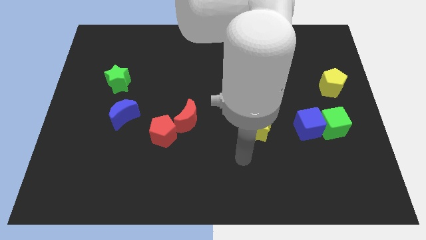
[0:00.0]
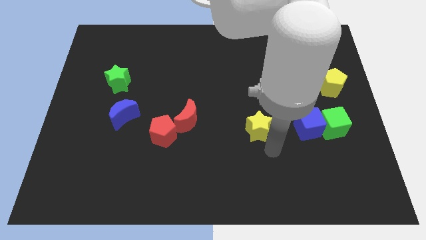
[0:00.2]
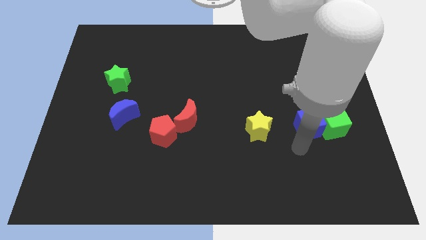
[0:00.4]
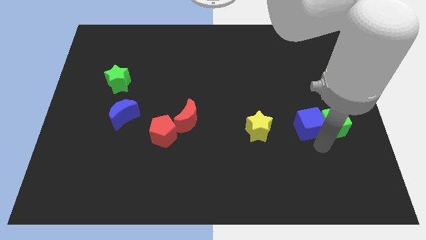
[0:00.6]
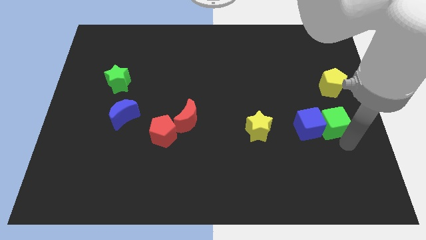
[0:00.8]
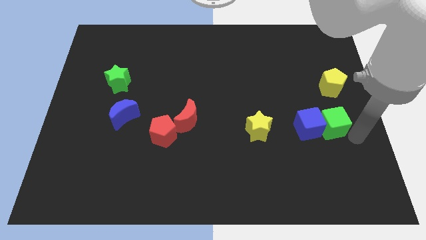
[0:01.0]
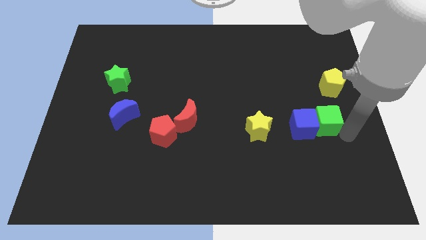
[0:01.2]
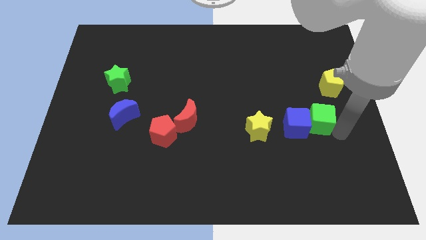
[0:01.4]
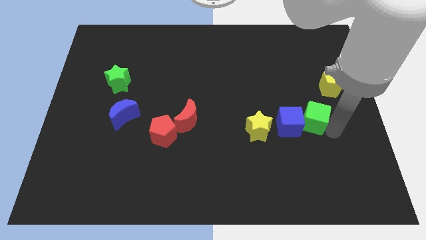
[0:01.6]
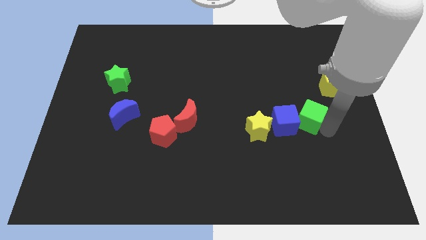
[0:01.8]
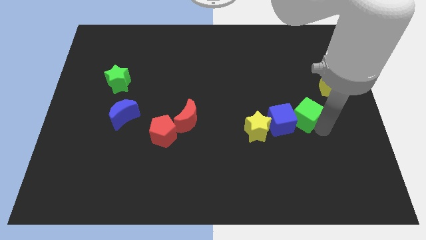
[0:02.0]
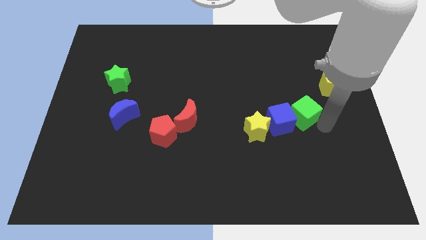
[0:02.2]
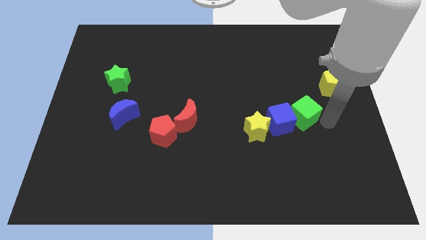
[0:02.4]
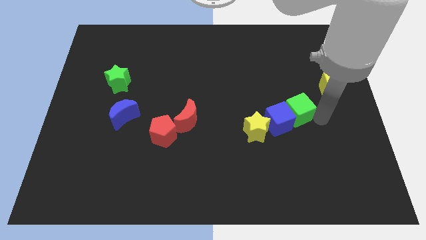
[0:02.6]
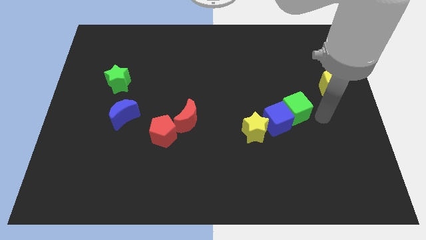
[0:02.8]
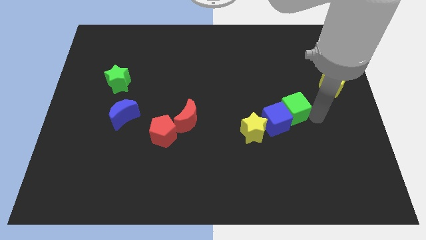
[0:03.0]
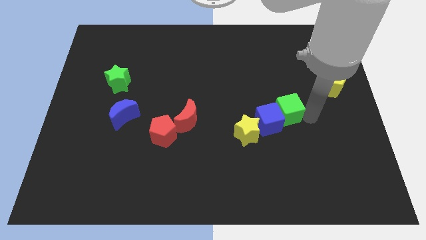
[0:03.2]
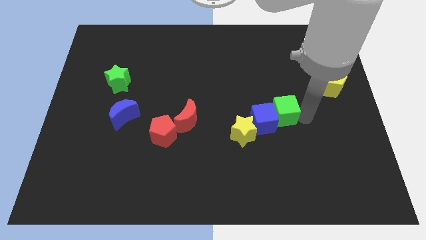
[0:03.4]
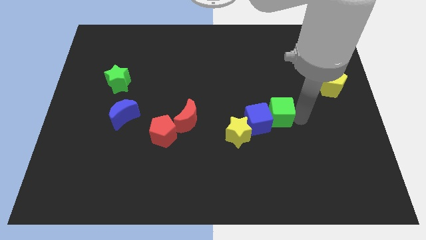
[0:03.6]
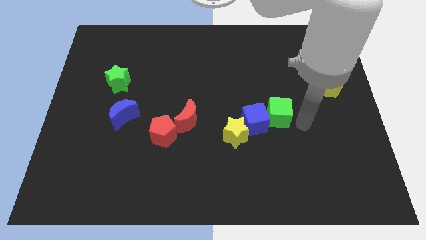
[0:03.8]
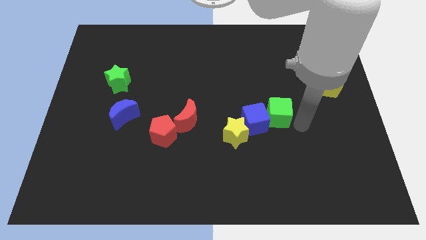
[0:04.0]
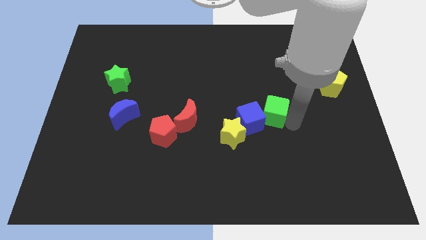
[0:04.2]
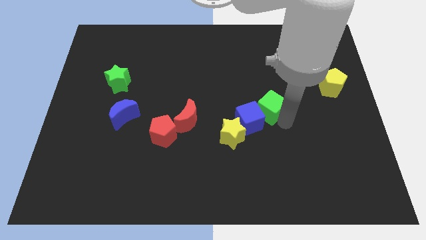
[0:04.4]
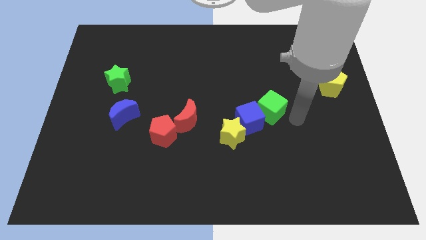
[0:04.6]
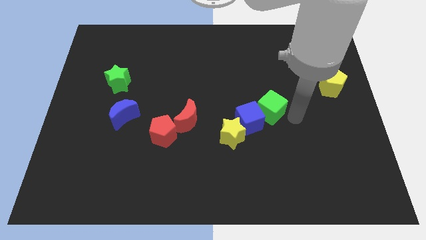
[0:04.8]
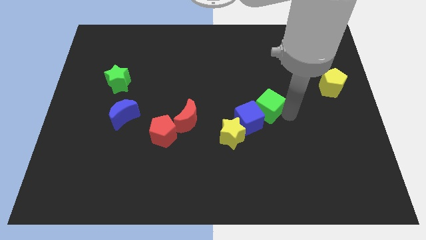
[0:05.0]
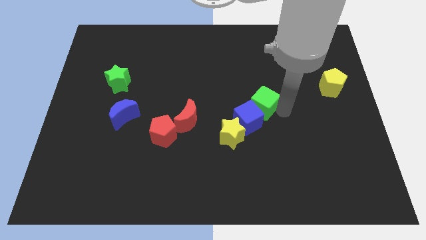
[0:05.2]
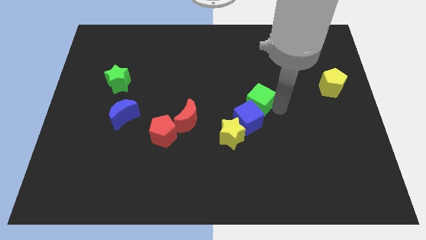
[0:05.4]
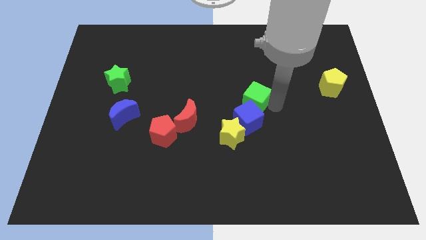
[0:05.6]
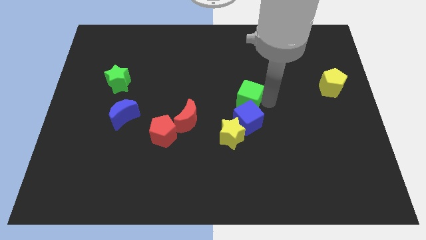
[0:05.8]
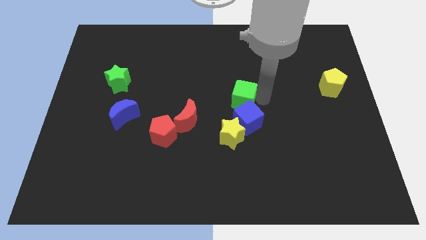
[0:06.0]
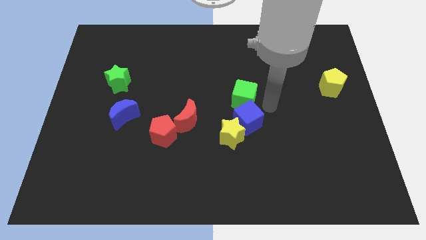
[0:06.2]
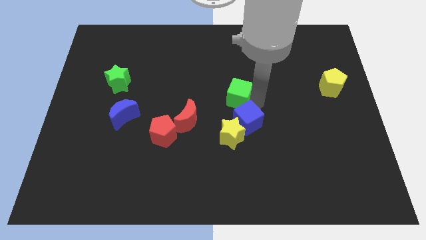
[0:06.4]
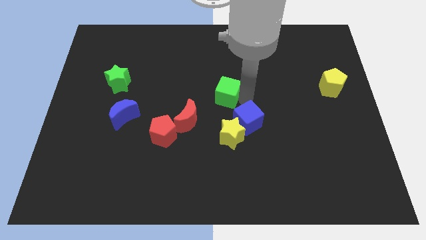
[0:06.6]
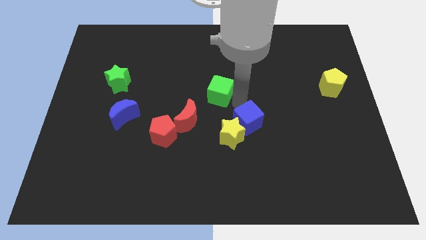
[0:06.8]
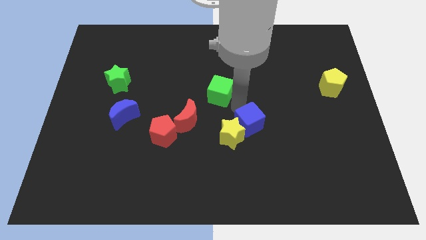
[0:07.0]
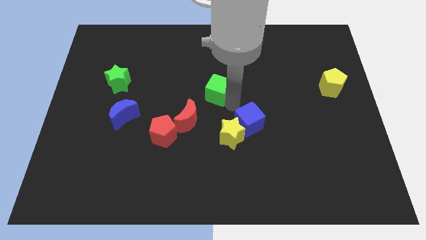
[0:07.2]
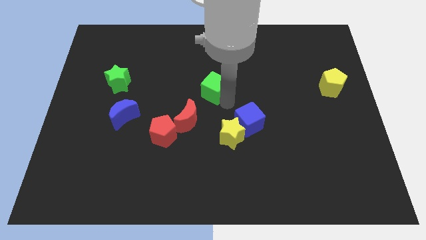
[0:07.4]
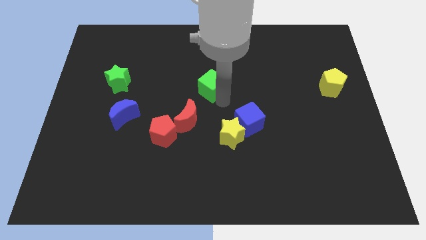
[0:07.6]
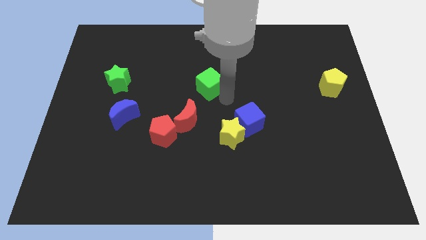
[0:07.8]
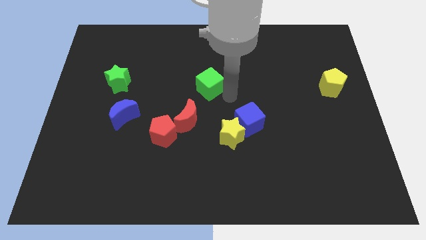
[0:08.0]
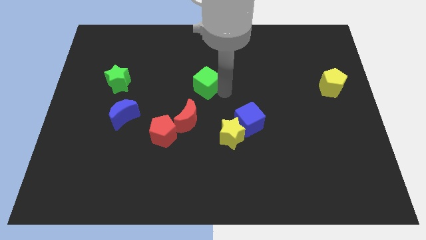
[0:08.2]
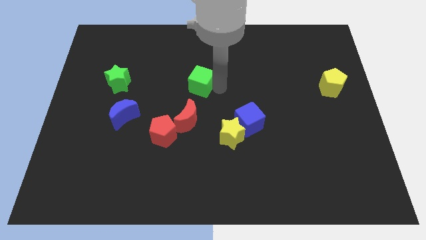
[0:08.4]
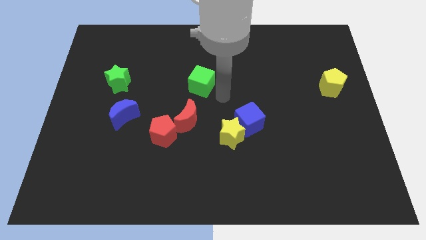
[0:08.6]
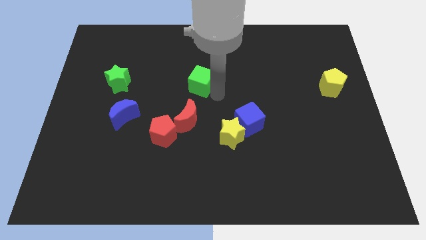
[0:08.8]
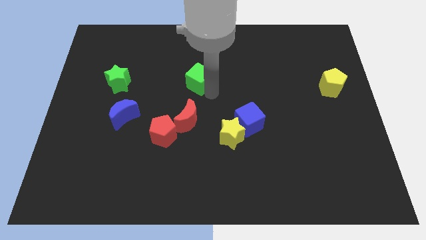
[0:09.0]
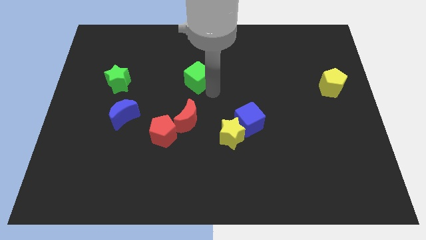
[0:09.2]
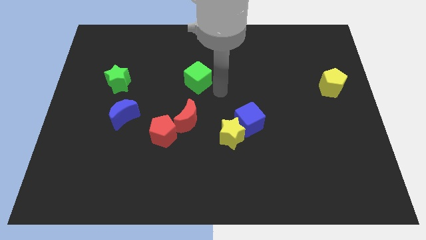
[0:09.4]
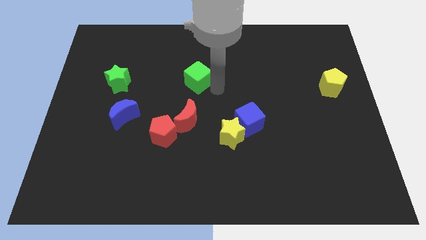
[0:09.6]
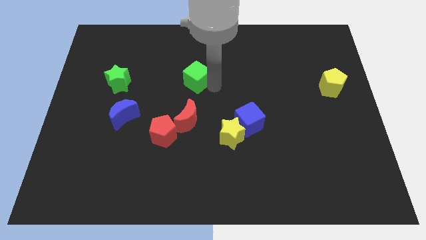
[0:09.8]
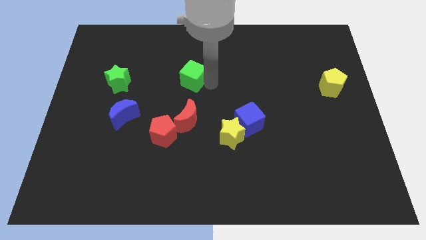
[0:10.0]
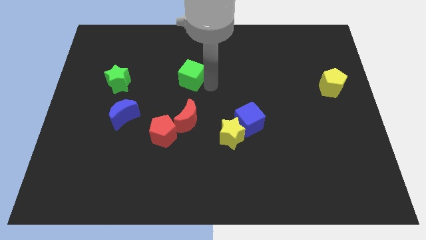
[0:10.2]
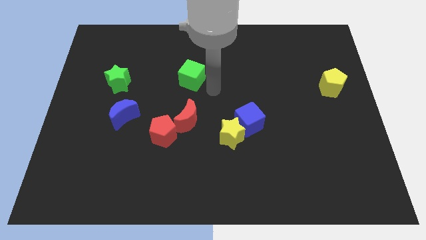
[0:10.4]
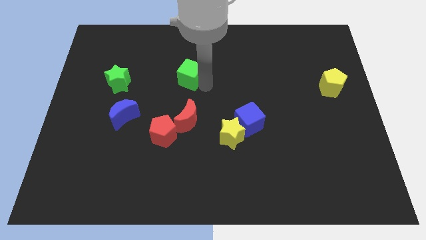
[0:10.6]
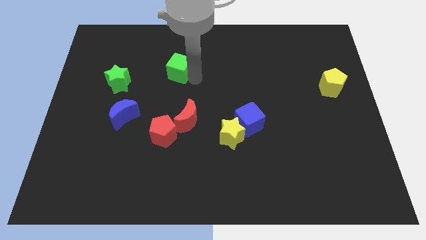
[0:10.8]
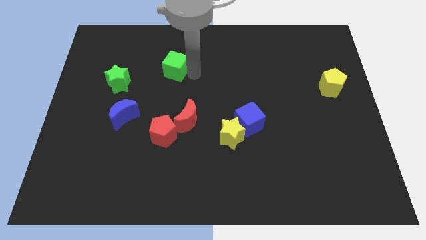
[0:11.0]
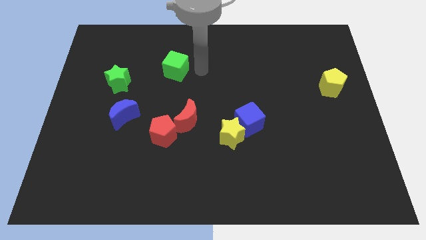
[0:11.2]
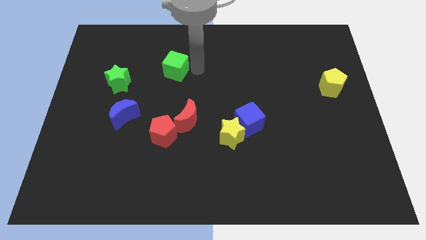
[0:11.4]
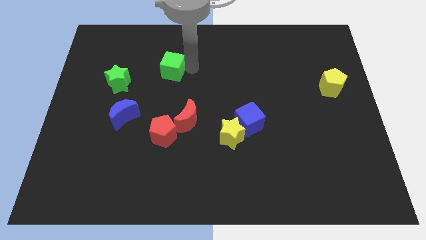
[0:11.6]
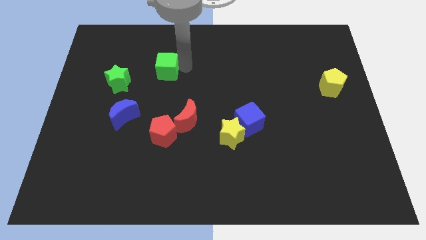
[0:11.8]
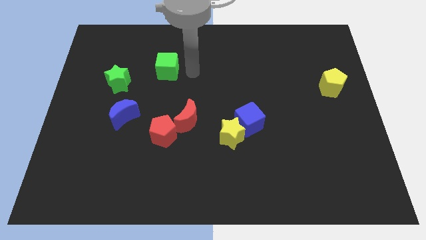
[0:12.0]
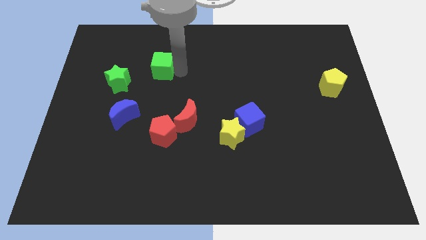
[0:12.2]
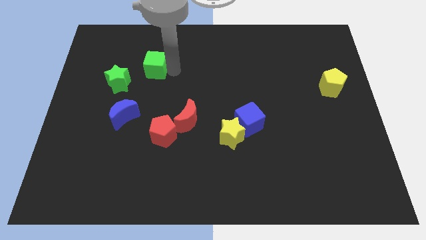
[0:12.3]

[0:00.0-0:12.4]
push the green cube to the top right of the green star

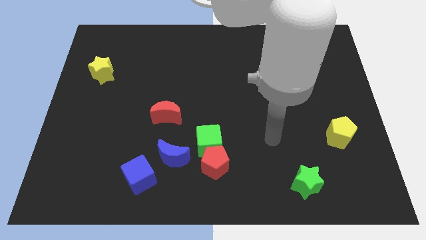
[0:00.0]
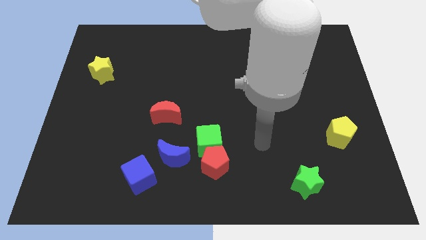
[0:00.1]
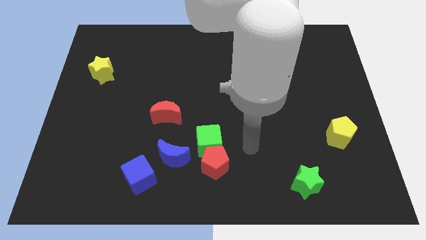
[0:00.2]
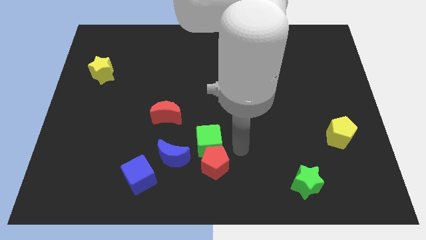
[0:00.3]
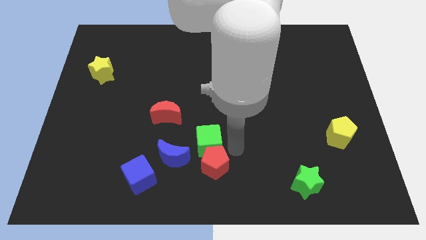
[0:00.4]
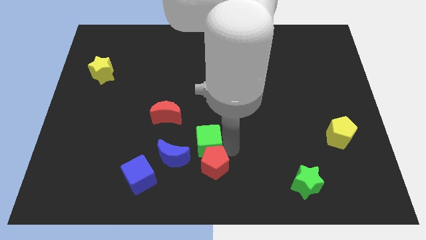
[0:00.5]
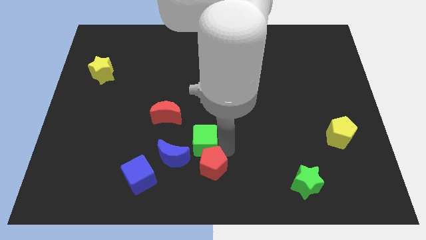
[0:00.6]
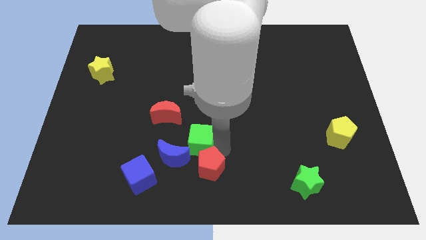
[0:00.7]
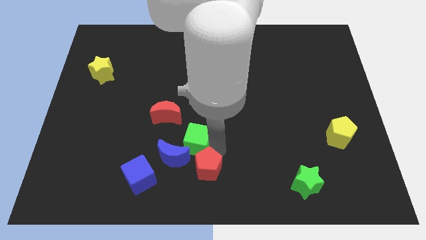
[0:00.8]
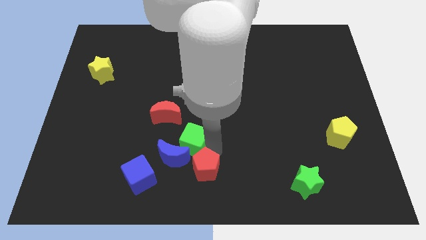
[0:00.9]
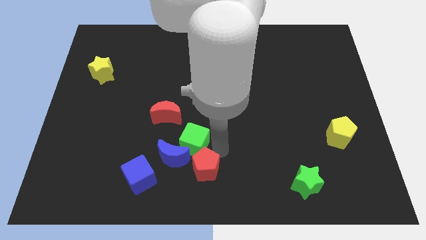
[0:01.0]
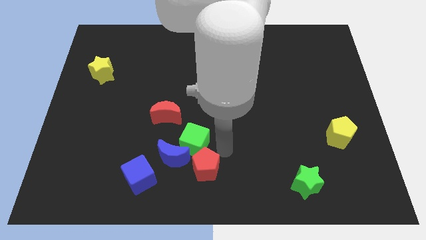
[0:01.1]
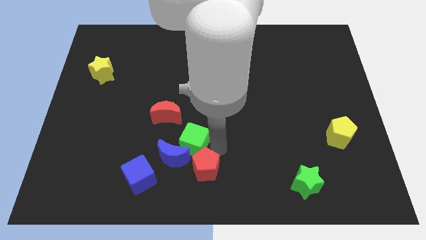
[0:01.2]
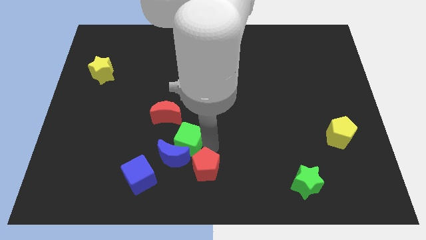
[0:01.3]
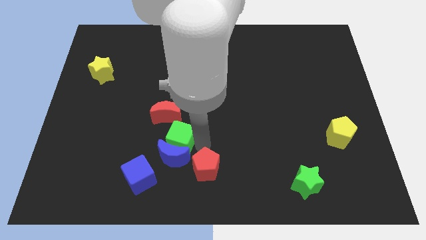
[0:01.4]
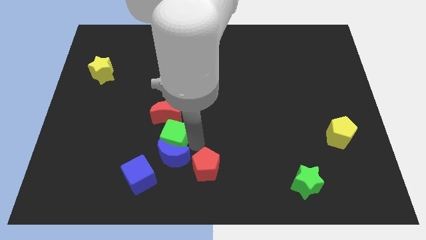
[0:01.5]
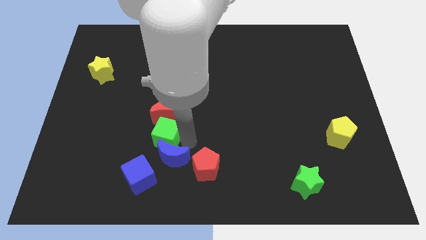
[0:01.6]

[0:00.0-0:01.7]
put the green cube to the top side of the blue cube
